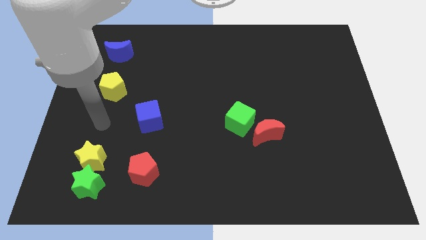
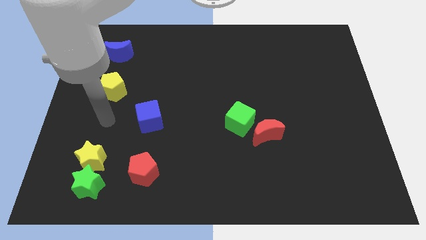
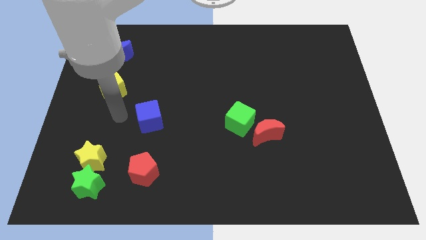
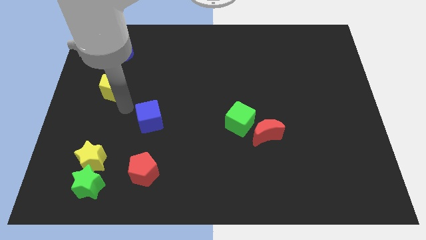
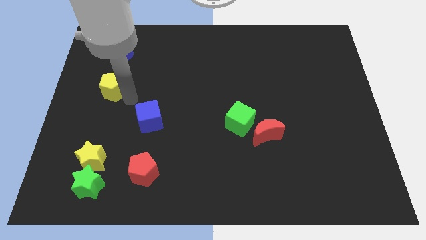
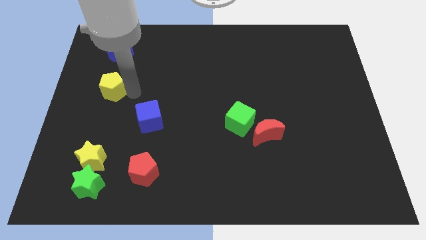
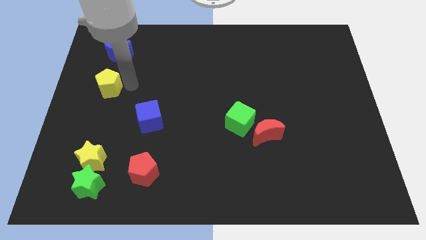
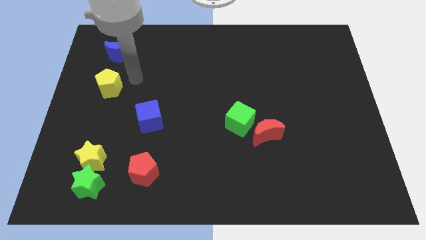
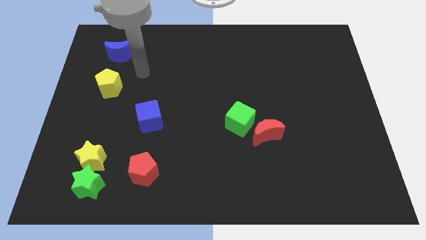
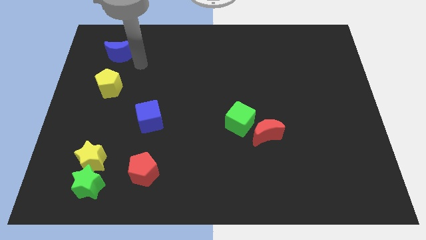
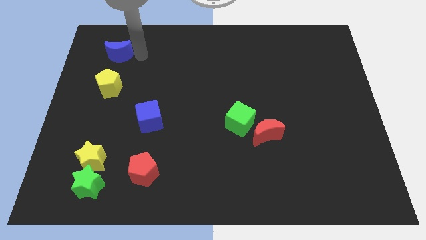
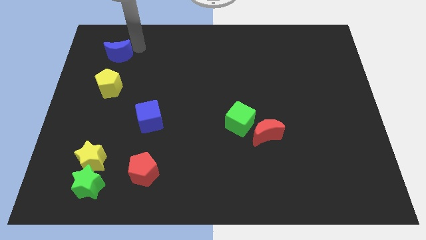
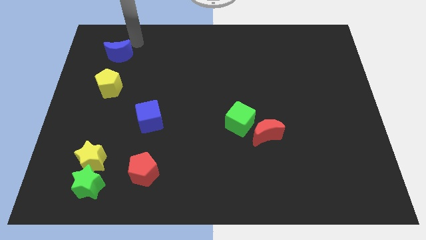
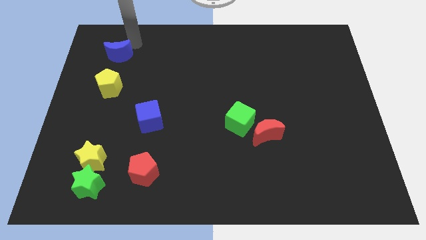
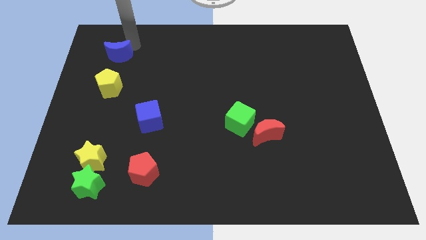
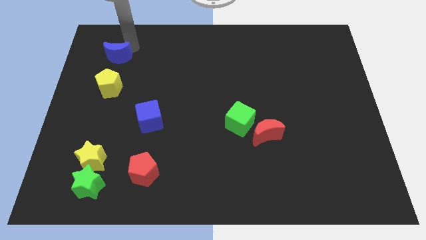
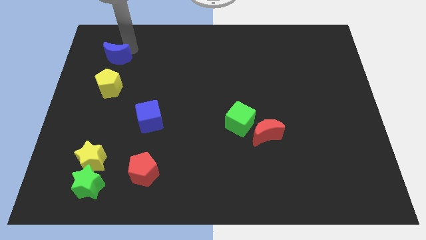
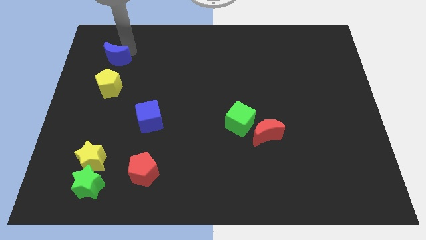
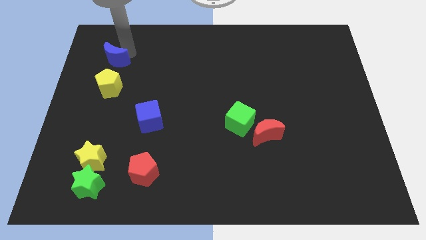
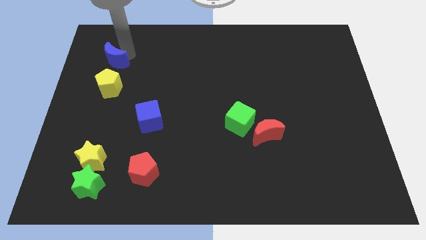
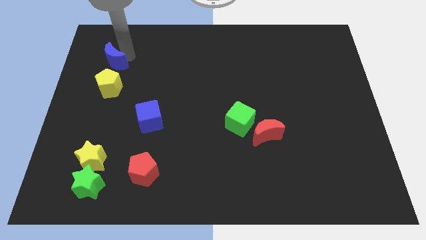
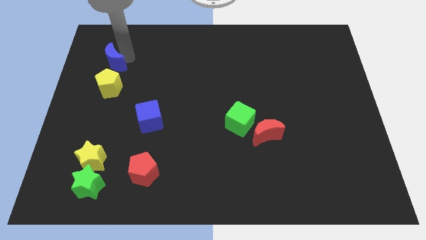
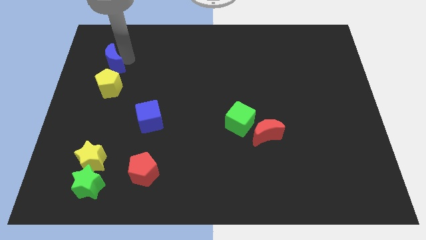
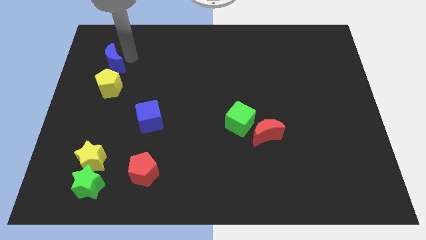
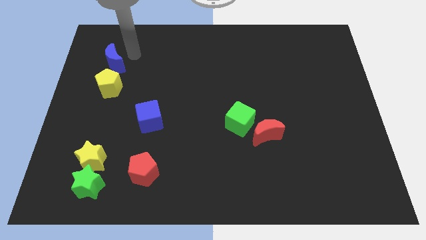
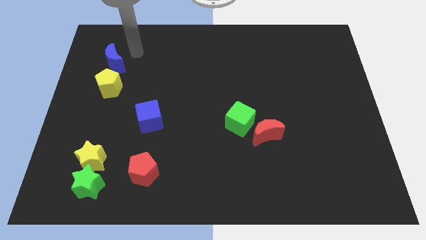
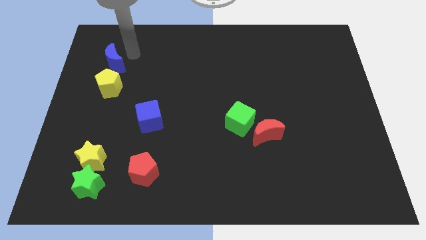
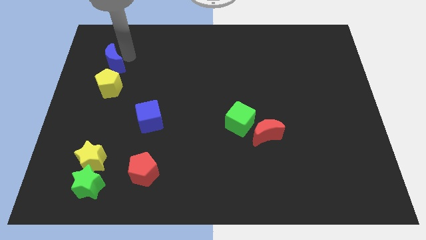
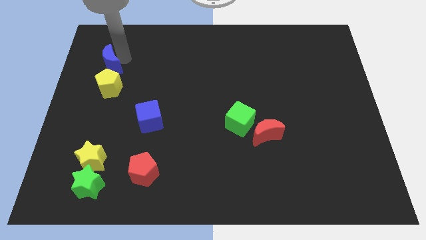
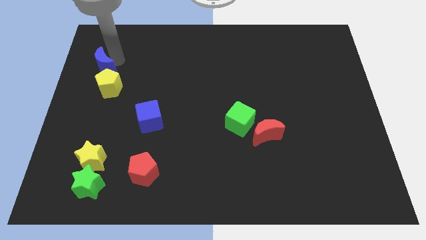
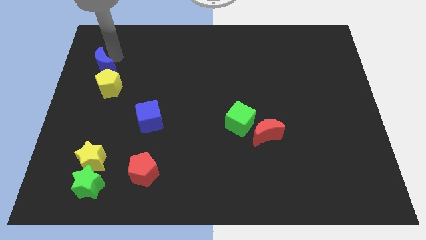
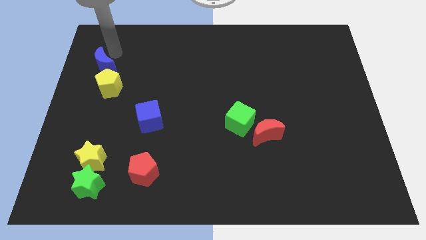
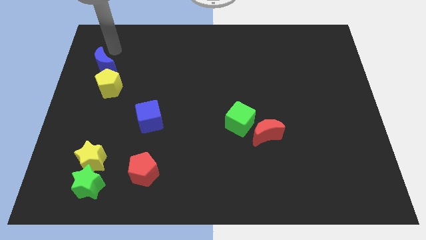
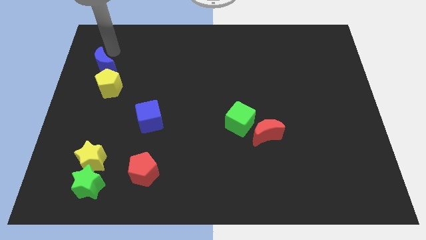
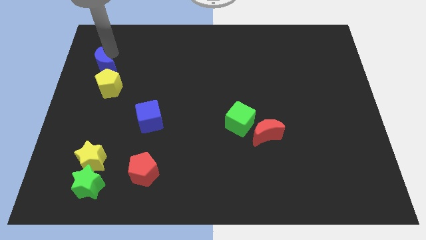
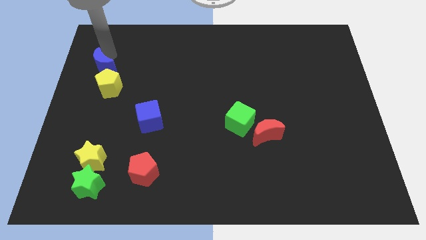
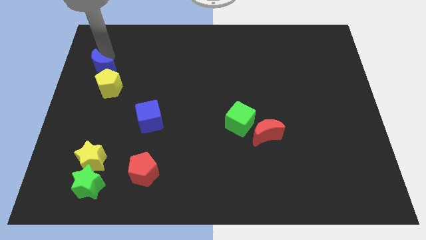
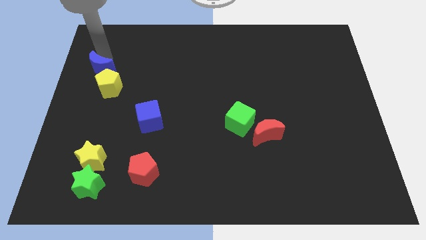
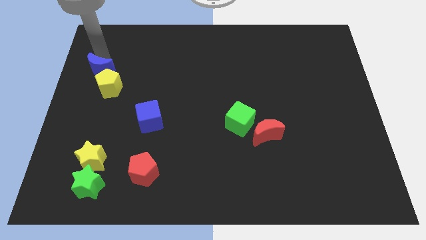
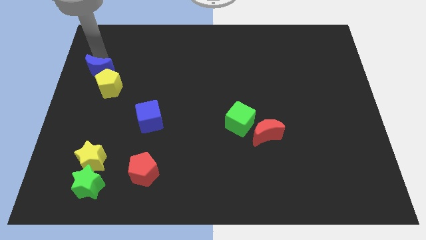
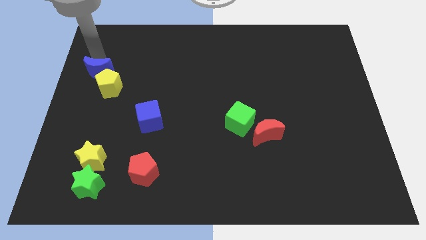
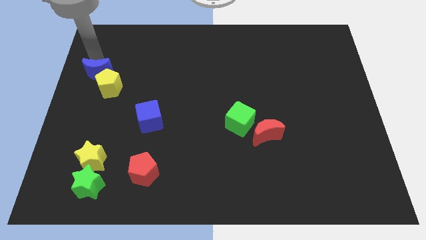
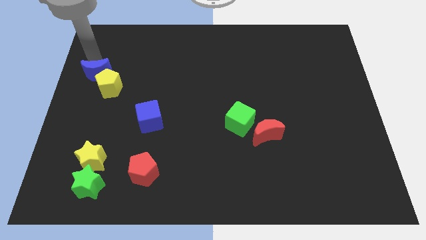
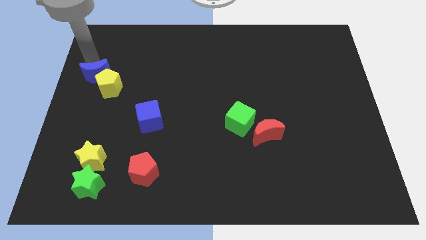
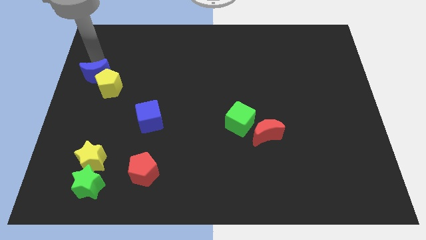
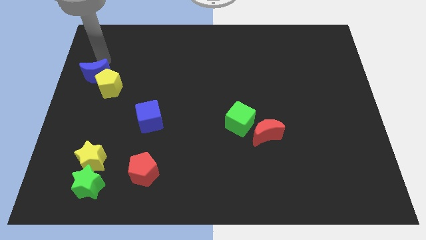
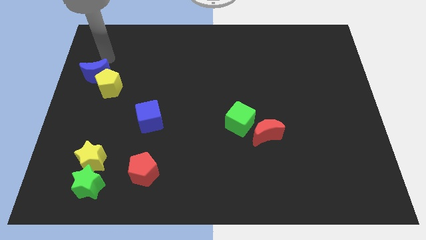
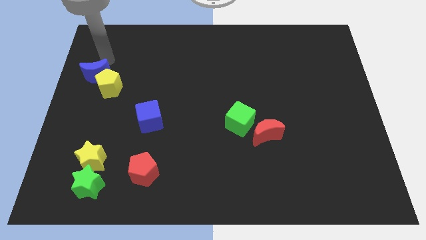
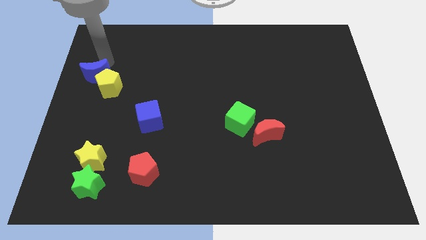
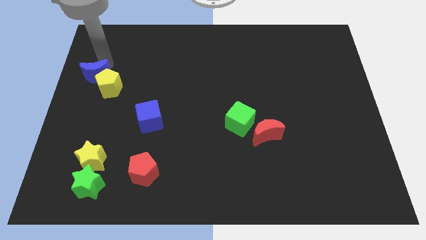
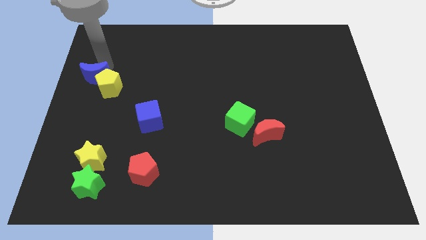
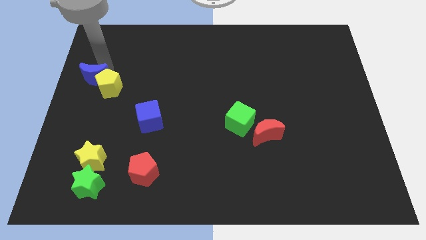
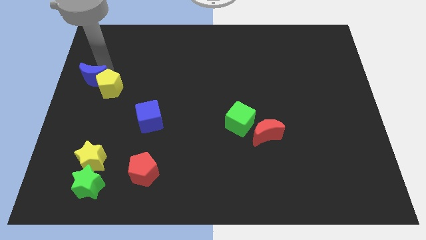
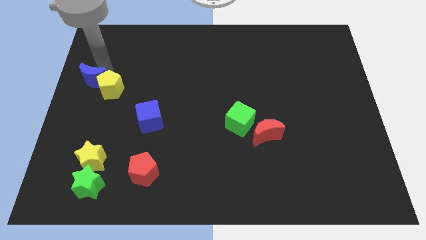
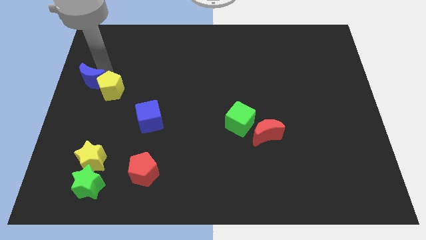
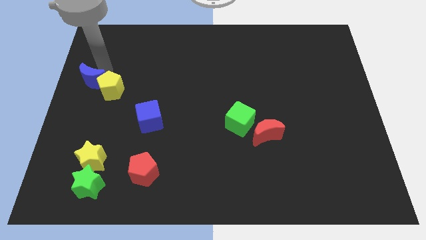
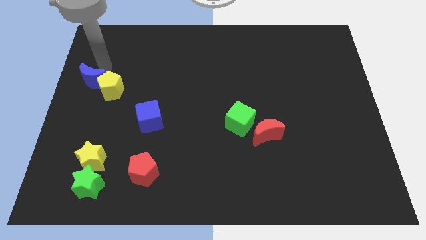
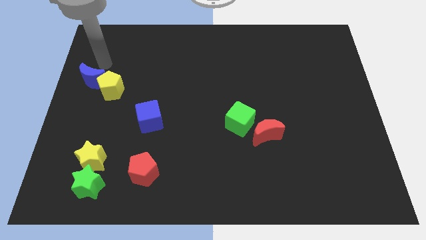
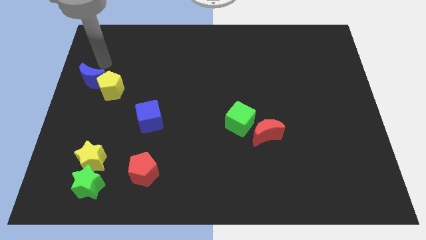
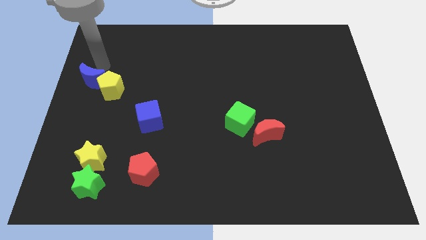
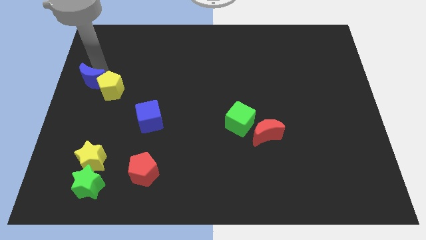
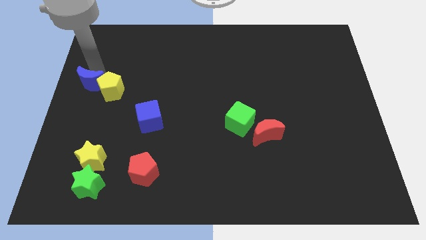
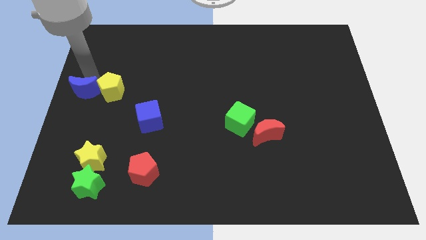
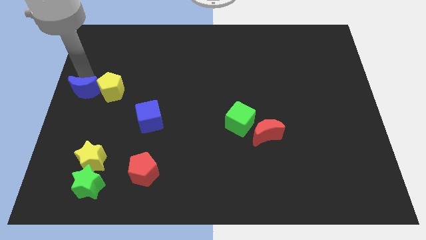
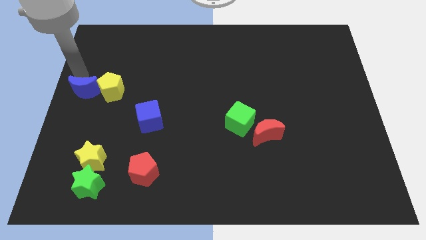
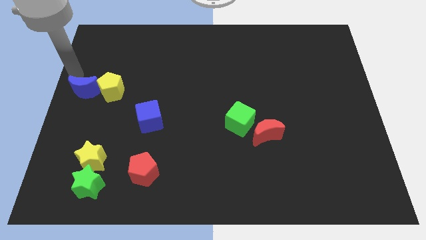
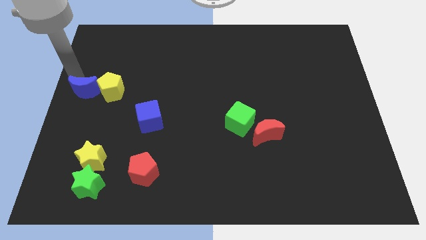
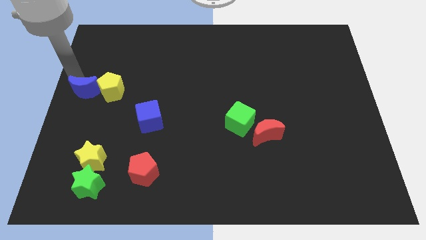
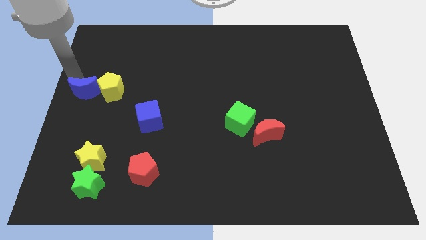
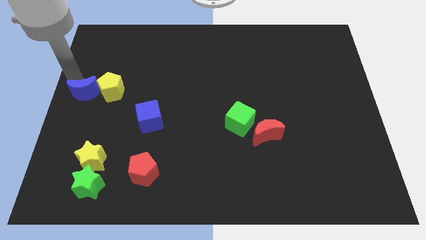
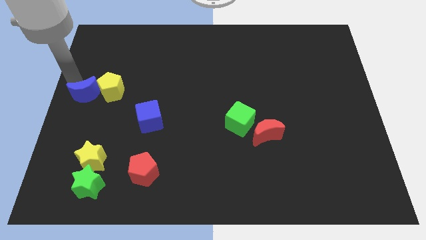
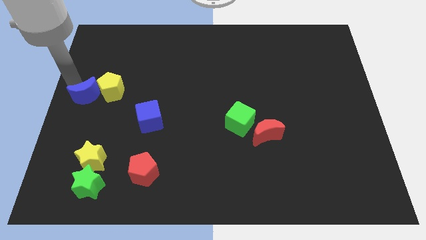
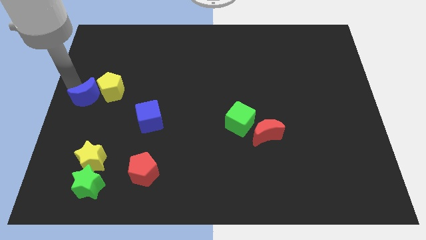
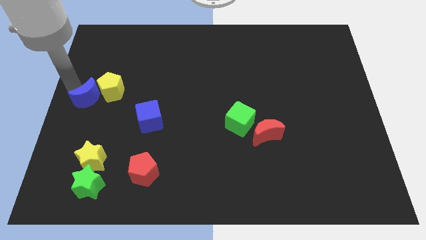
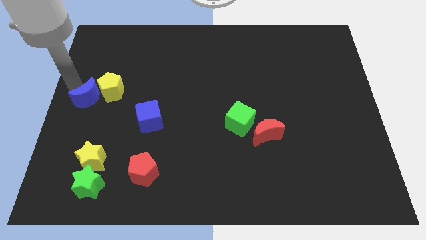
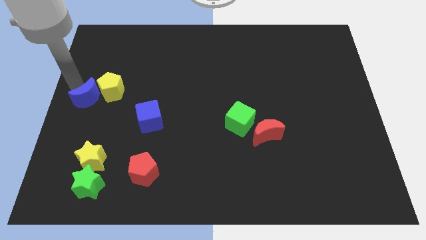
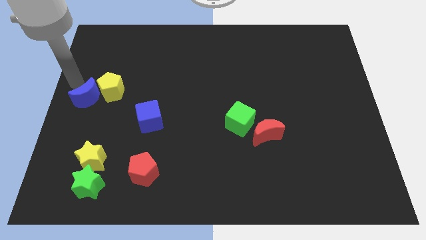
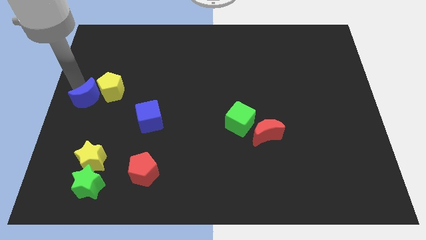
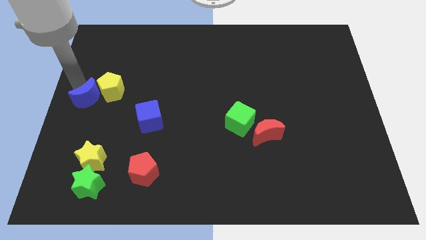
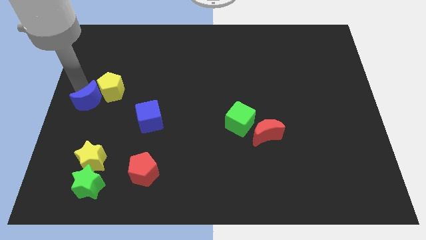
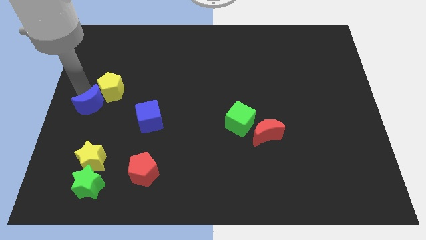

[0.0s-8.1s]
put the blue moon to the top of the yellow star
